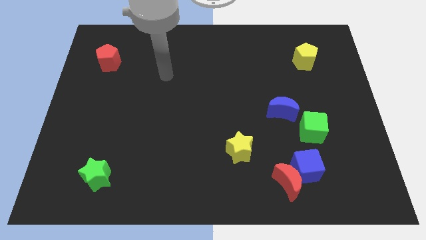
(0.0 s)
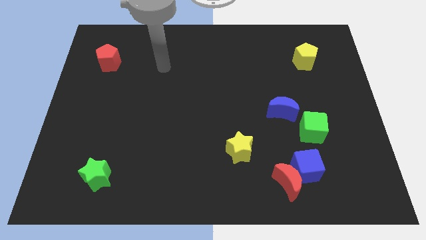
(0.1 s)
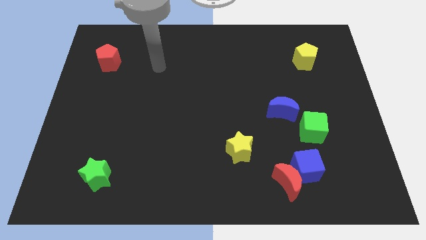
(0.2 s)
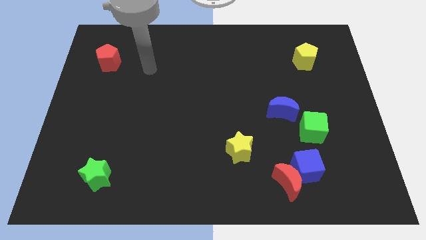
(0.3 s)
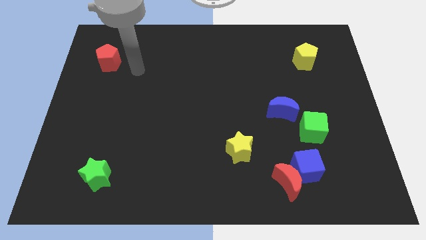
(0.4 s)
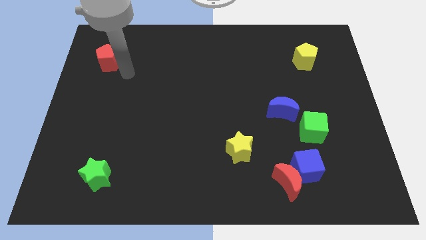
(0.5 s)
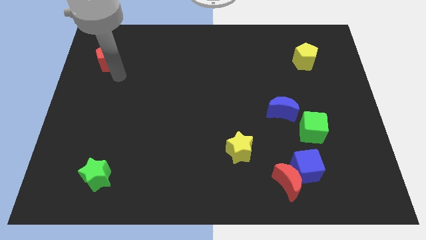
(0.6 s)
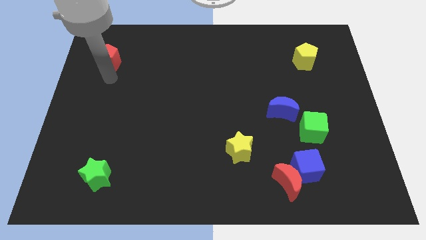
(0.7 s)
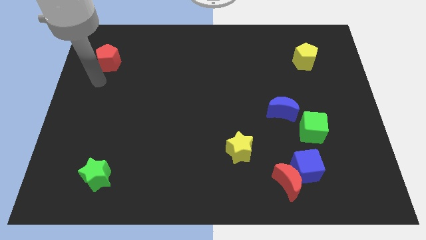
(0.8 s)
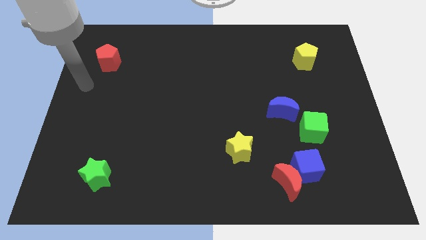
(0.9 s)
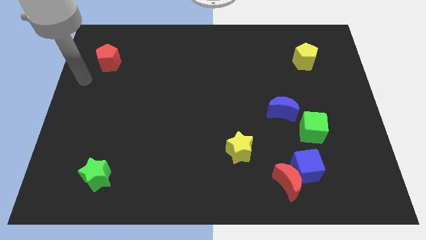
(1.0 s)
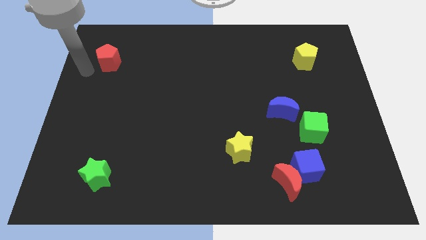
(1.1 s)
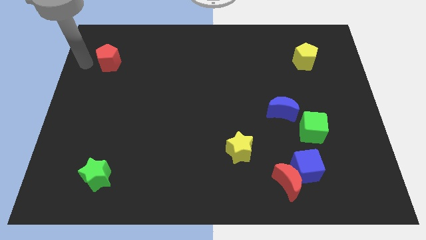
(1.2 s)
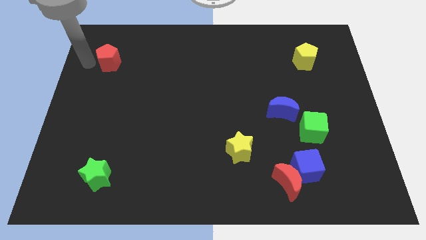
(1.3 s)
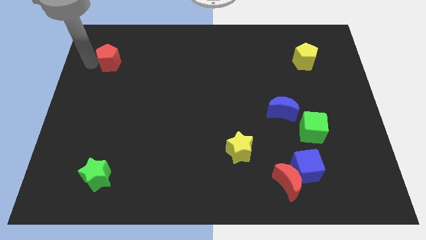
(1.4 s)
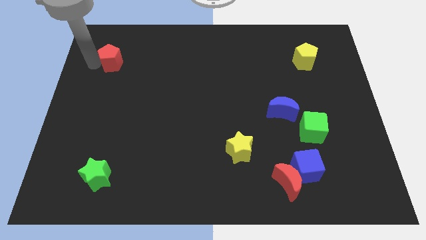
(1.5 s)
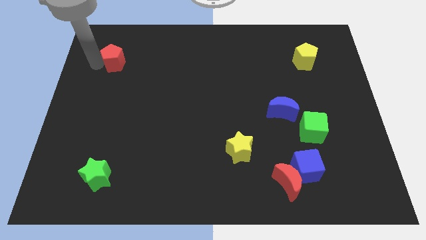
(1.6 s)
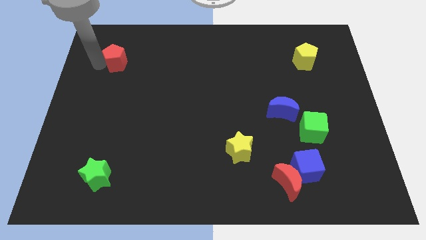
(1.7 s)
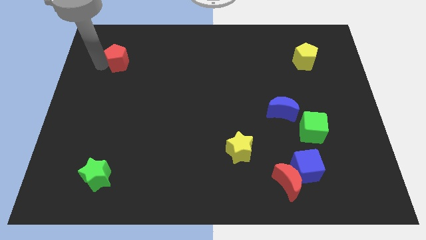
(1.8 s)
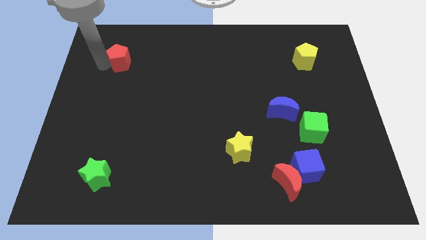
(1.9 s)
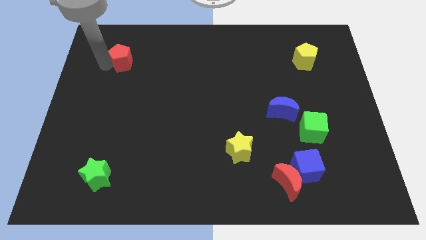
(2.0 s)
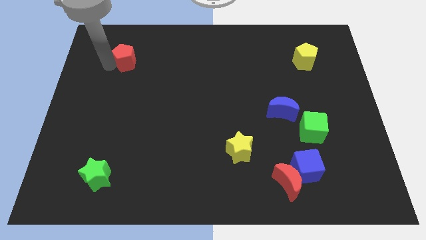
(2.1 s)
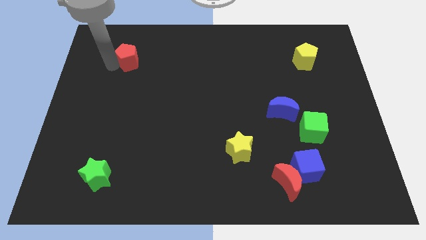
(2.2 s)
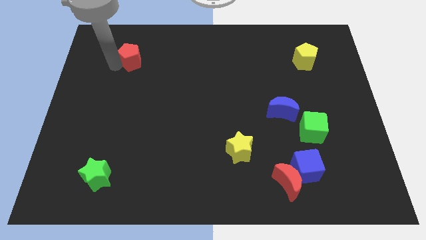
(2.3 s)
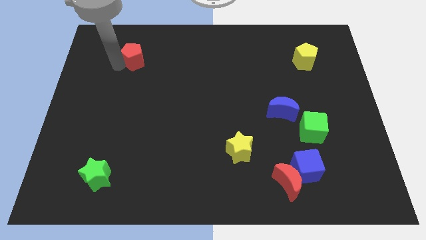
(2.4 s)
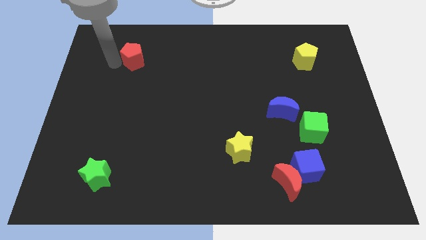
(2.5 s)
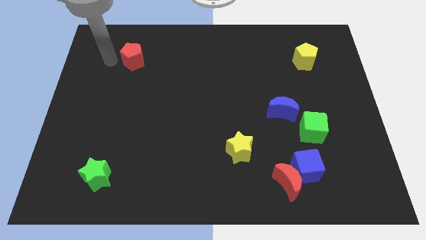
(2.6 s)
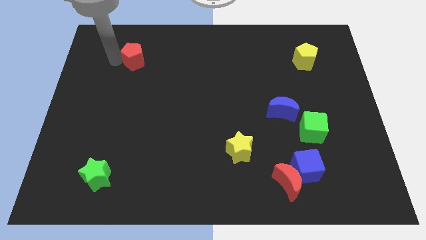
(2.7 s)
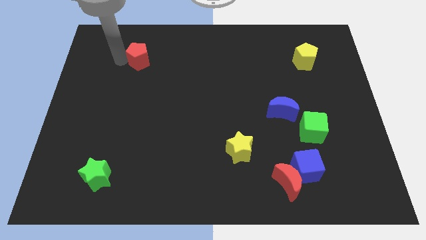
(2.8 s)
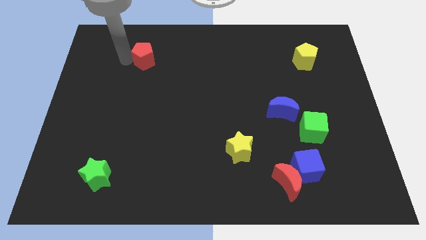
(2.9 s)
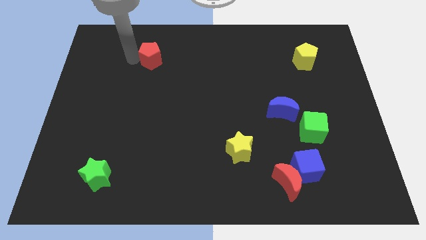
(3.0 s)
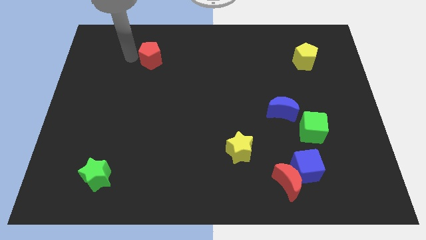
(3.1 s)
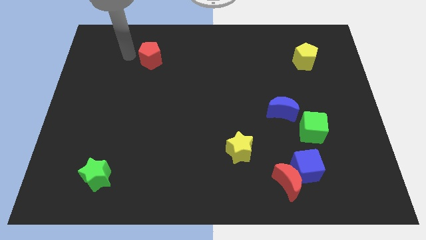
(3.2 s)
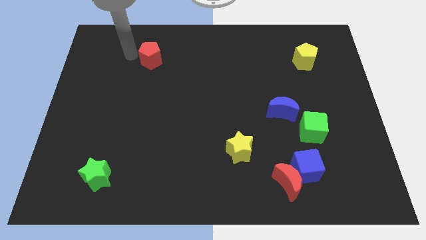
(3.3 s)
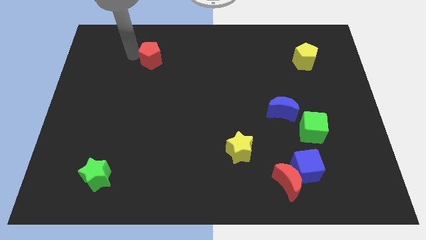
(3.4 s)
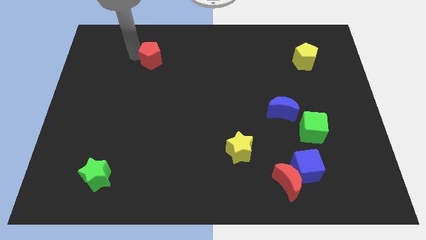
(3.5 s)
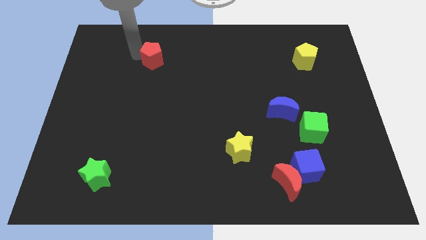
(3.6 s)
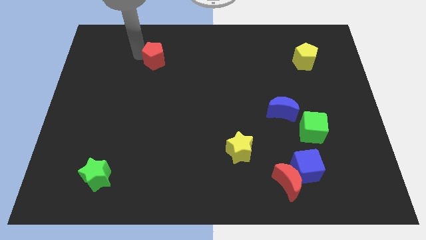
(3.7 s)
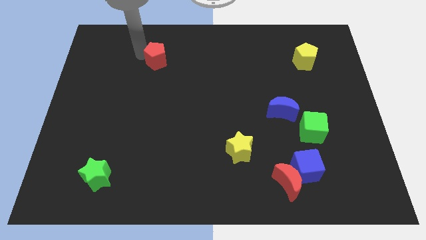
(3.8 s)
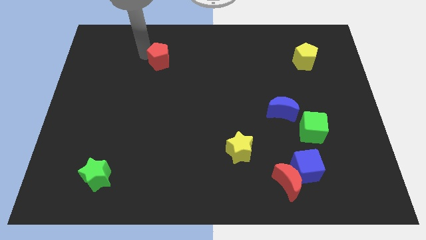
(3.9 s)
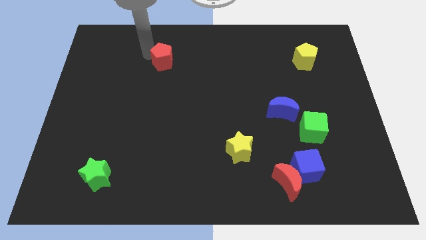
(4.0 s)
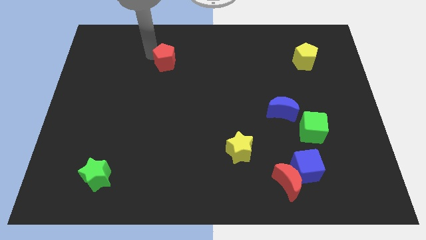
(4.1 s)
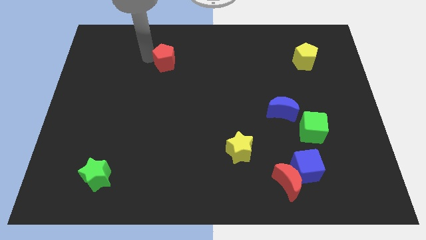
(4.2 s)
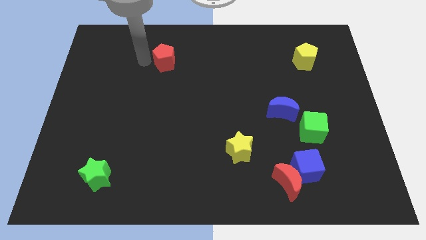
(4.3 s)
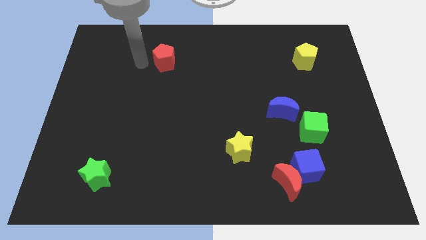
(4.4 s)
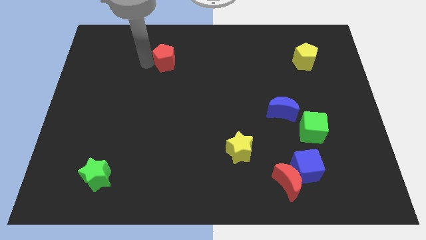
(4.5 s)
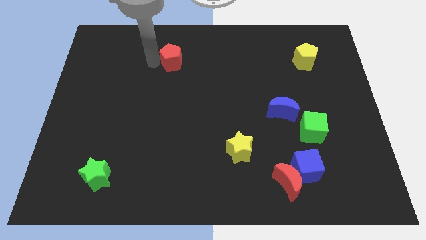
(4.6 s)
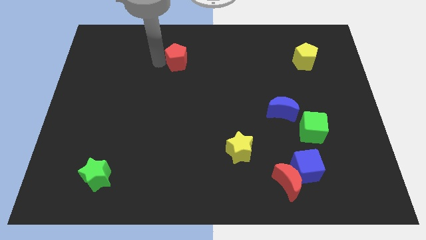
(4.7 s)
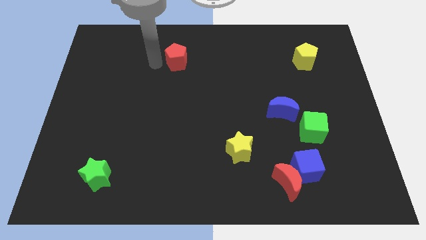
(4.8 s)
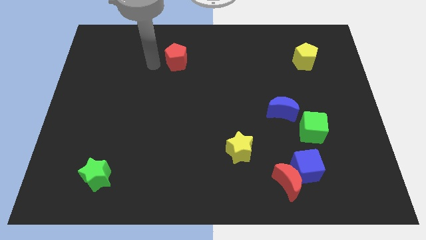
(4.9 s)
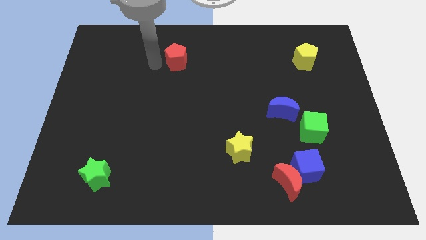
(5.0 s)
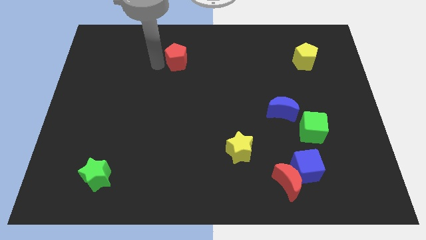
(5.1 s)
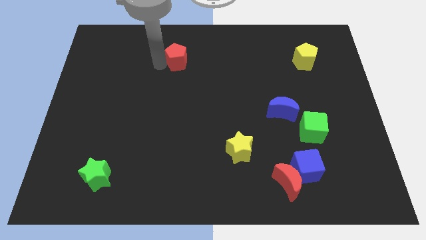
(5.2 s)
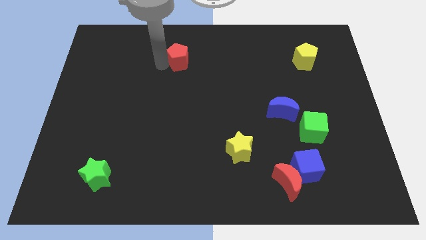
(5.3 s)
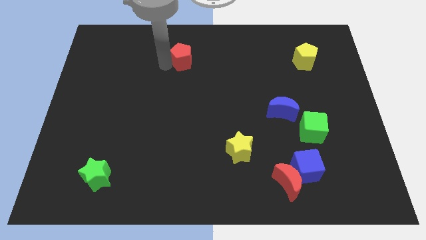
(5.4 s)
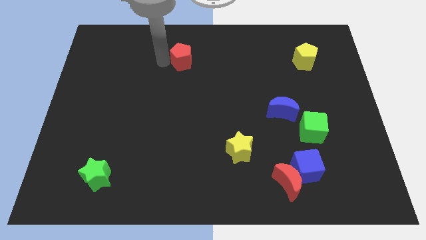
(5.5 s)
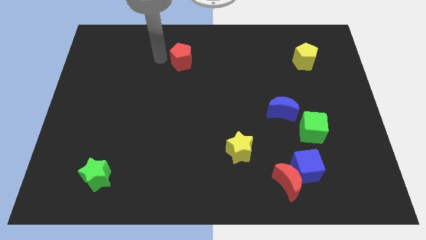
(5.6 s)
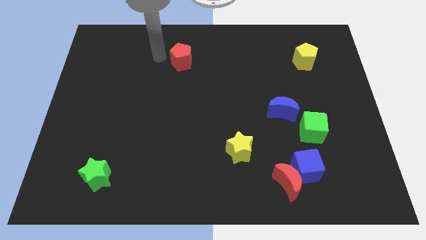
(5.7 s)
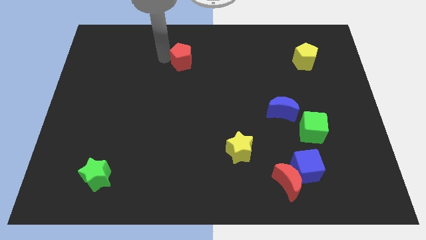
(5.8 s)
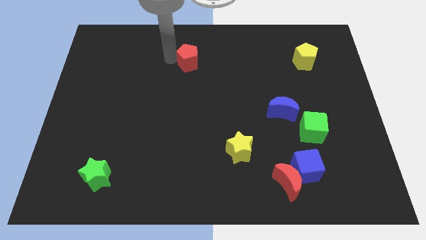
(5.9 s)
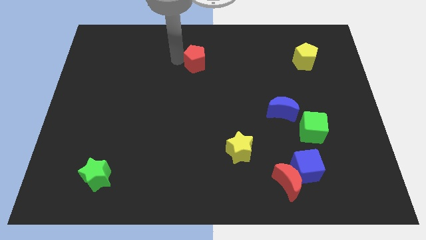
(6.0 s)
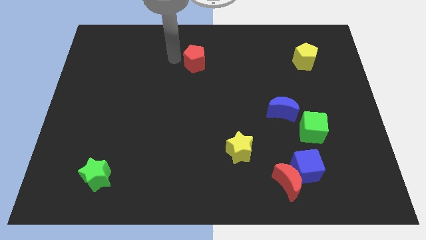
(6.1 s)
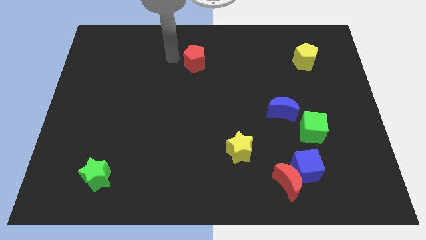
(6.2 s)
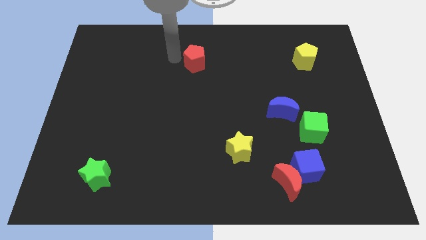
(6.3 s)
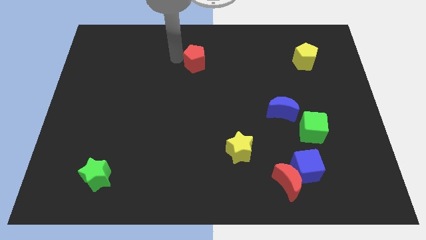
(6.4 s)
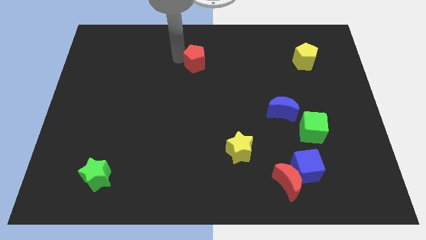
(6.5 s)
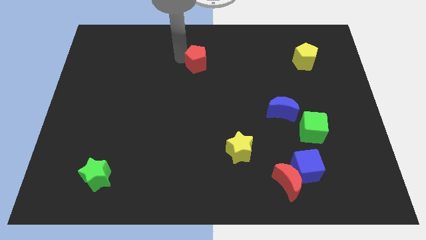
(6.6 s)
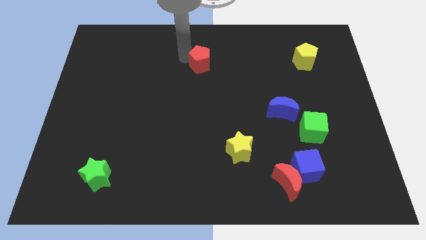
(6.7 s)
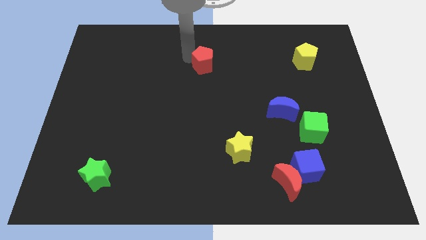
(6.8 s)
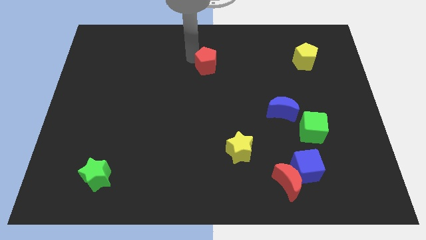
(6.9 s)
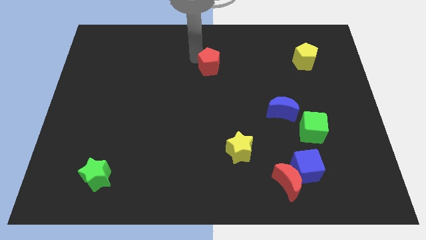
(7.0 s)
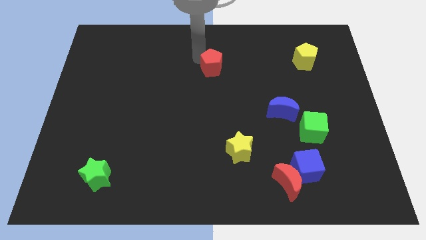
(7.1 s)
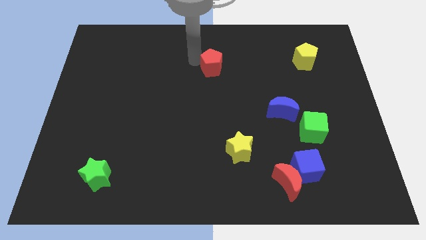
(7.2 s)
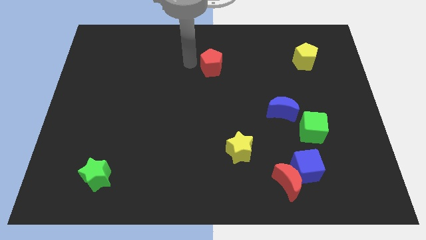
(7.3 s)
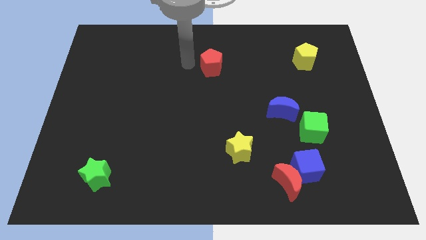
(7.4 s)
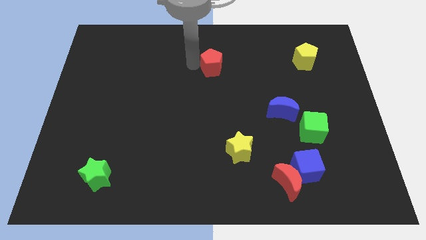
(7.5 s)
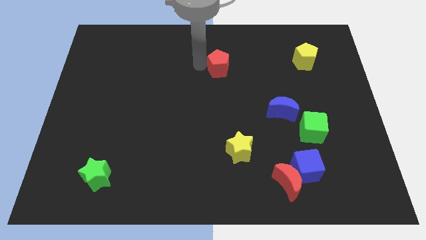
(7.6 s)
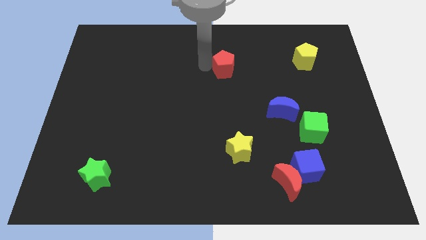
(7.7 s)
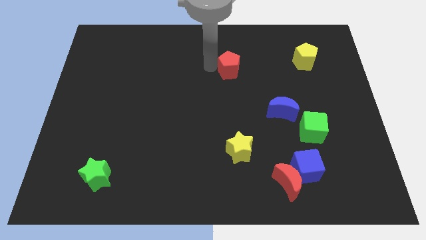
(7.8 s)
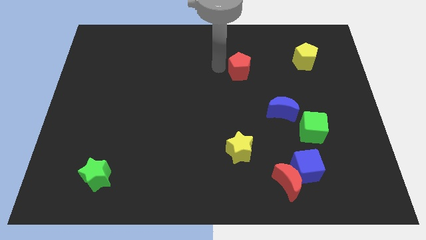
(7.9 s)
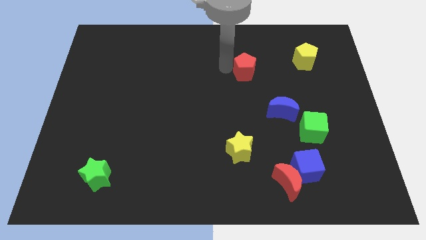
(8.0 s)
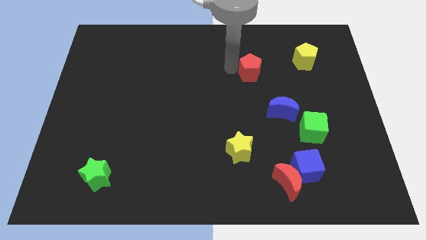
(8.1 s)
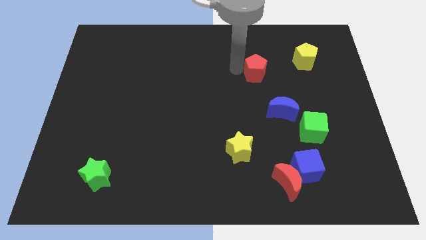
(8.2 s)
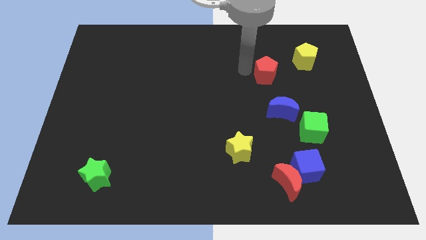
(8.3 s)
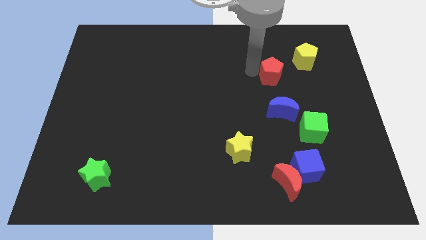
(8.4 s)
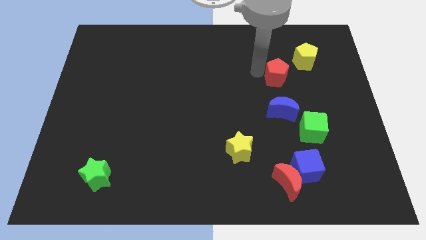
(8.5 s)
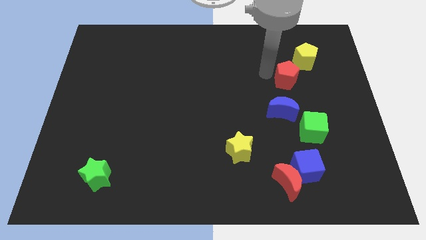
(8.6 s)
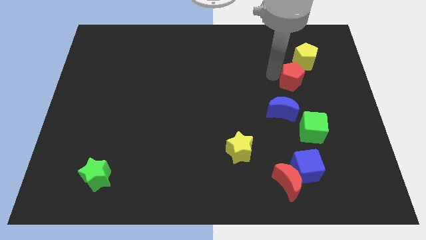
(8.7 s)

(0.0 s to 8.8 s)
put the red pentagon to the bottom side of the yellow pentagon
